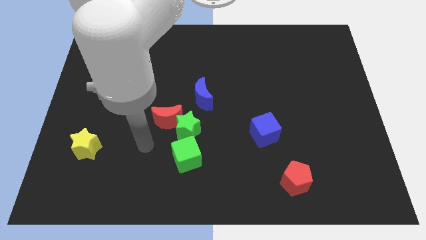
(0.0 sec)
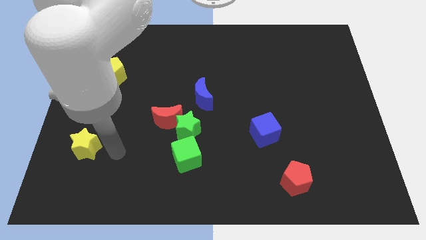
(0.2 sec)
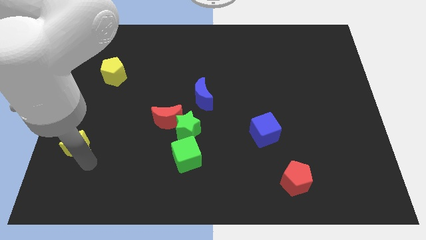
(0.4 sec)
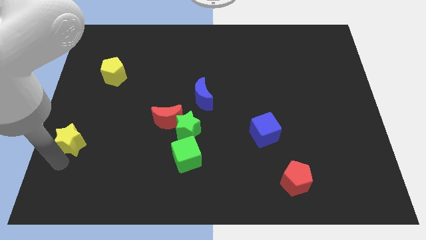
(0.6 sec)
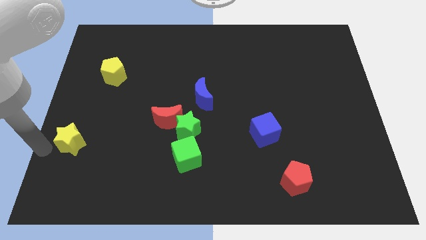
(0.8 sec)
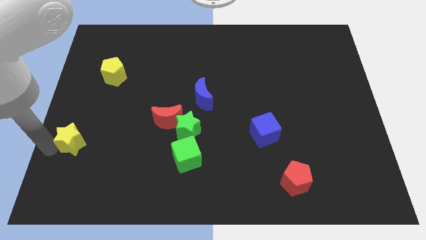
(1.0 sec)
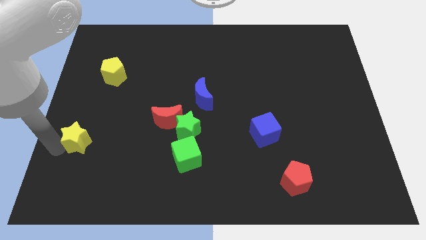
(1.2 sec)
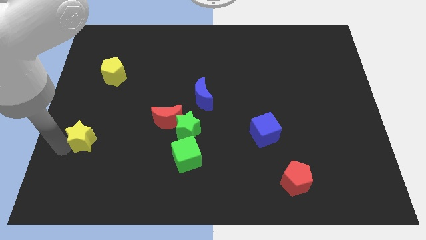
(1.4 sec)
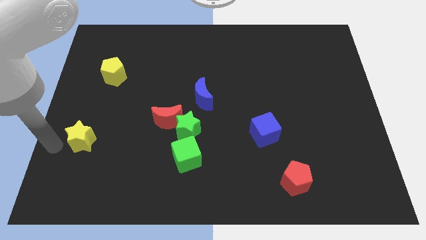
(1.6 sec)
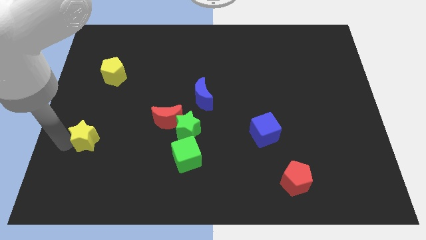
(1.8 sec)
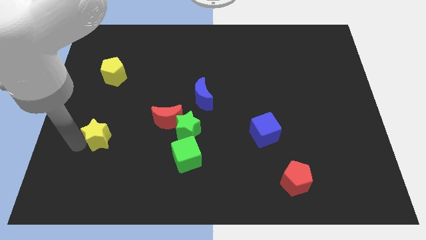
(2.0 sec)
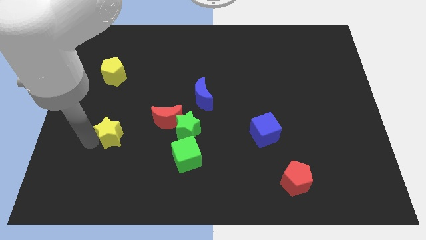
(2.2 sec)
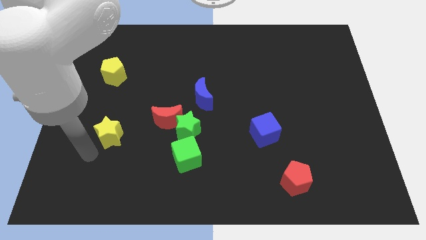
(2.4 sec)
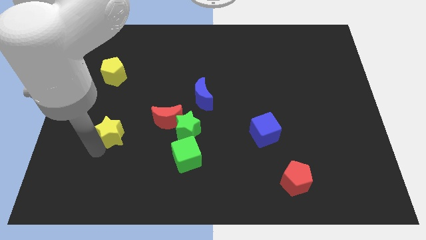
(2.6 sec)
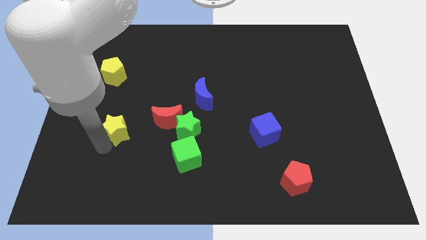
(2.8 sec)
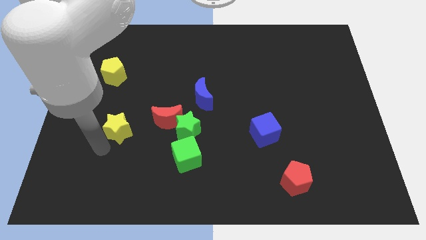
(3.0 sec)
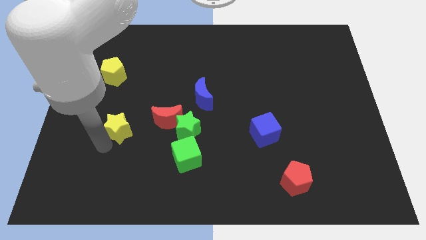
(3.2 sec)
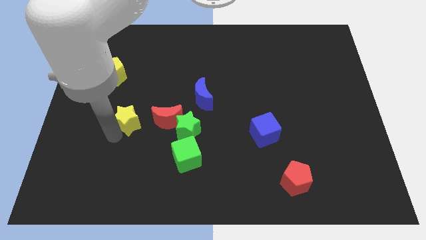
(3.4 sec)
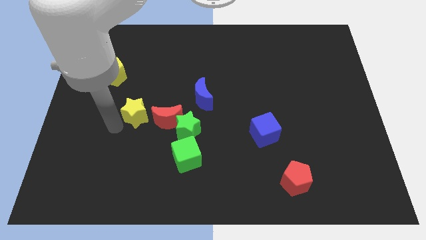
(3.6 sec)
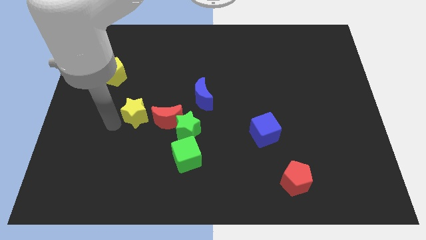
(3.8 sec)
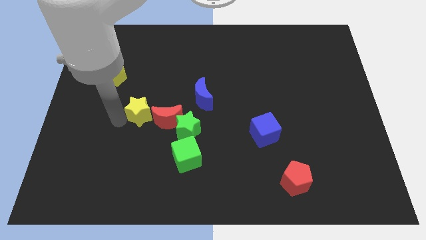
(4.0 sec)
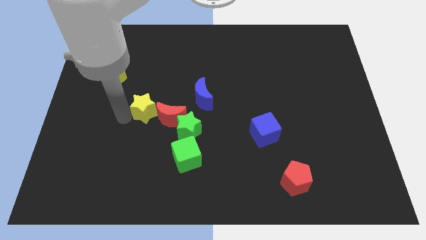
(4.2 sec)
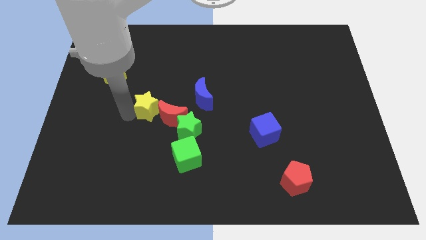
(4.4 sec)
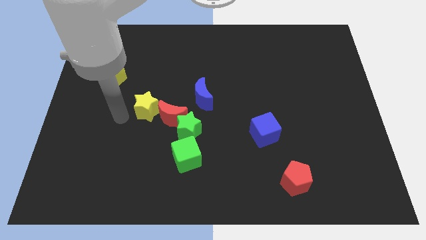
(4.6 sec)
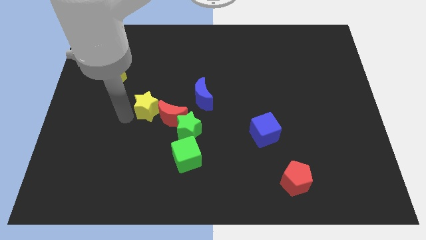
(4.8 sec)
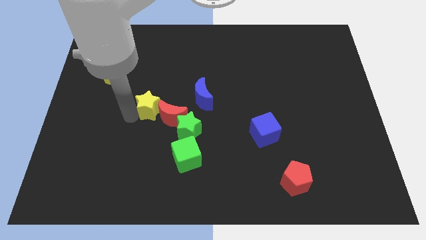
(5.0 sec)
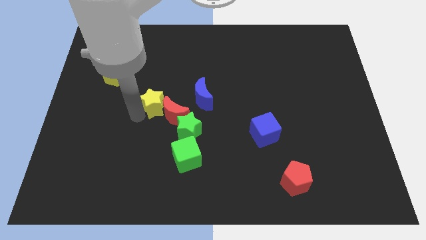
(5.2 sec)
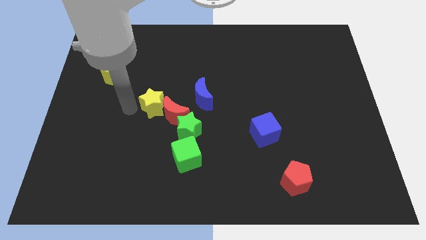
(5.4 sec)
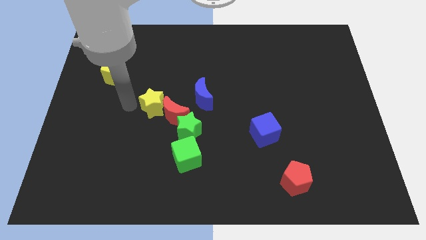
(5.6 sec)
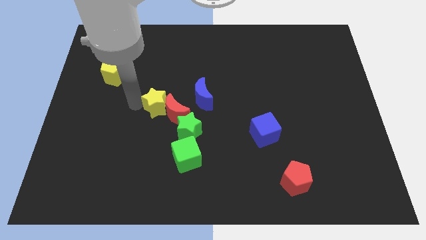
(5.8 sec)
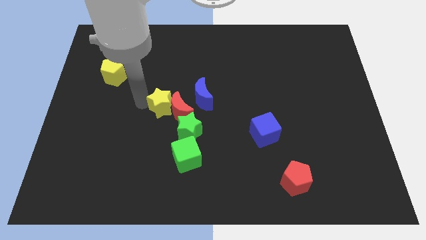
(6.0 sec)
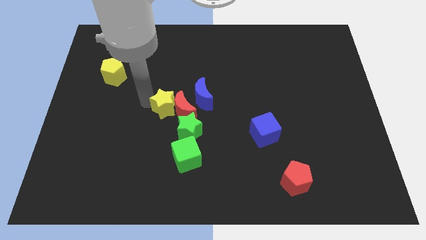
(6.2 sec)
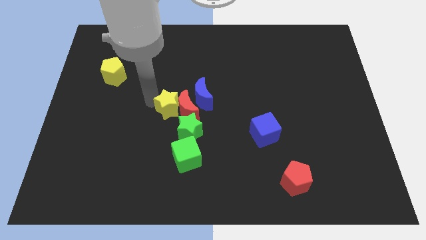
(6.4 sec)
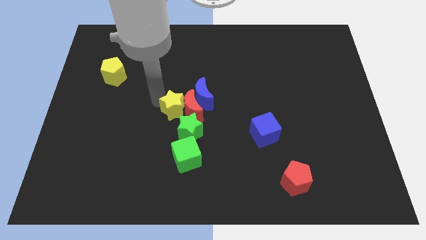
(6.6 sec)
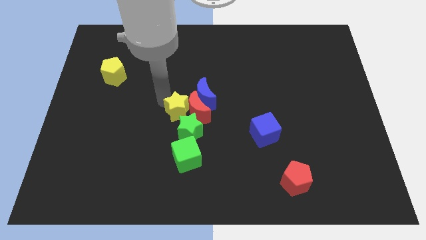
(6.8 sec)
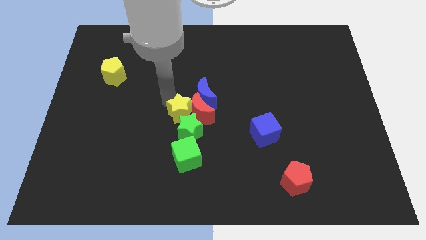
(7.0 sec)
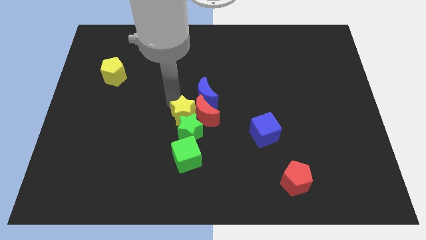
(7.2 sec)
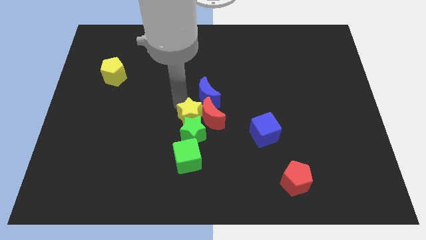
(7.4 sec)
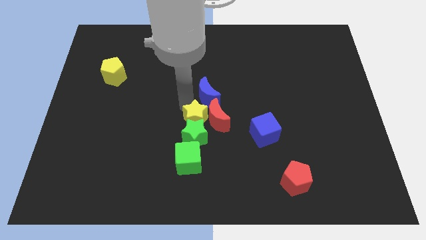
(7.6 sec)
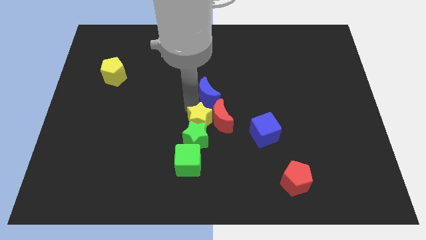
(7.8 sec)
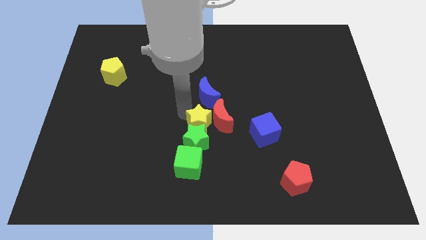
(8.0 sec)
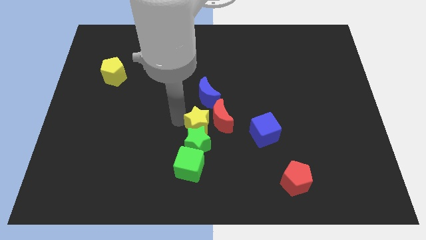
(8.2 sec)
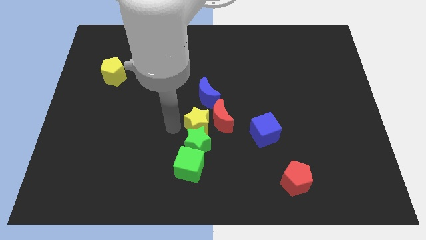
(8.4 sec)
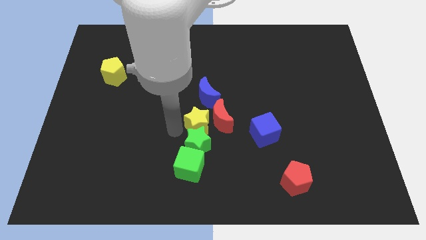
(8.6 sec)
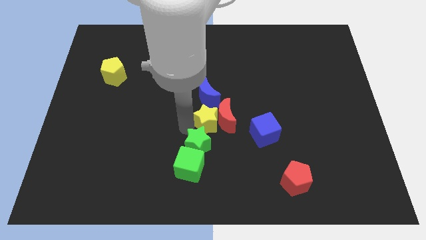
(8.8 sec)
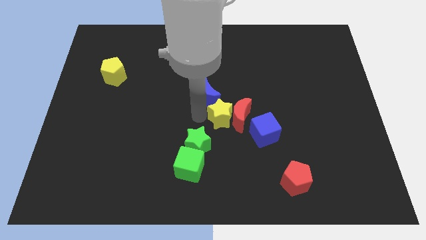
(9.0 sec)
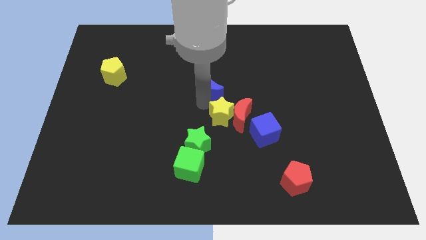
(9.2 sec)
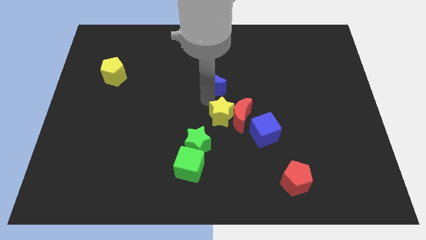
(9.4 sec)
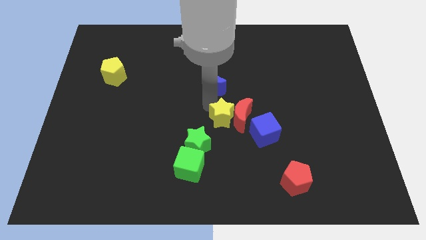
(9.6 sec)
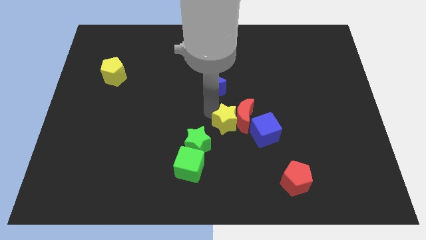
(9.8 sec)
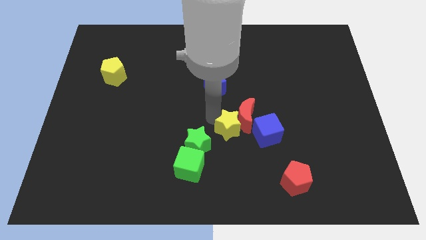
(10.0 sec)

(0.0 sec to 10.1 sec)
put the yellow star right of the green star

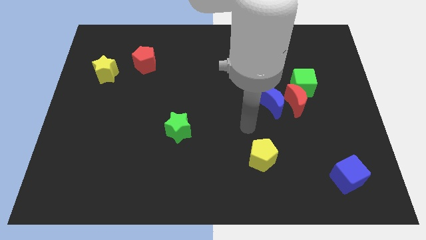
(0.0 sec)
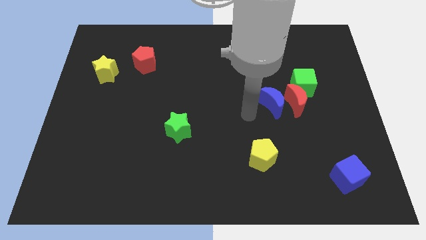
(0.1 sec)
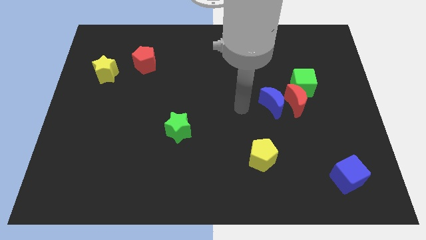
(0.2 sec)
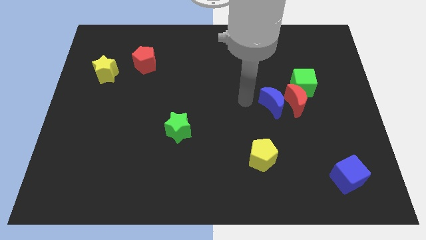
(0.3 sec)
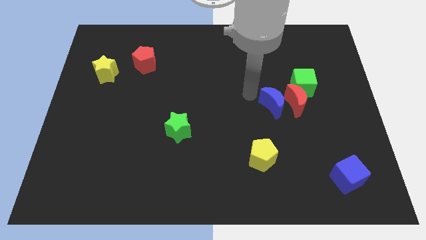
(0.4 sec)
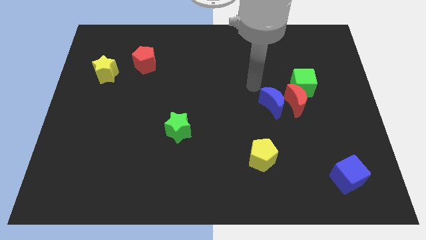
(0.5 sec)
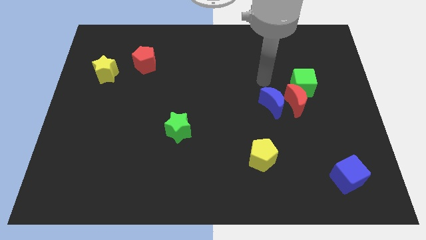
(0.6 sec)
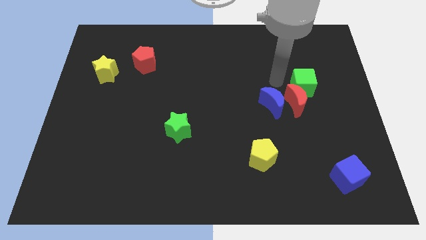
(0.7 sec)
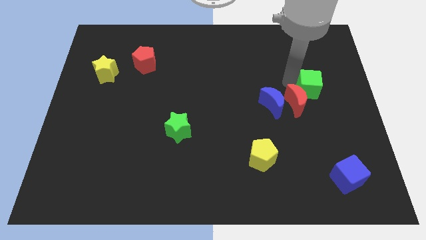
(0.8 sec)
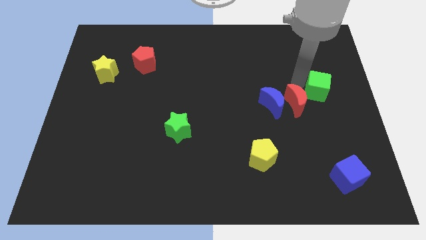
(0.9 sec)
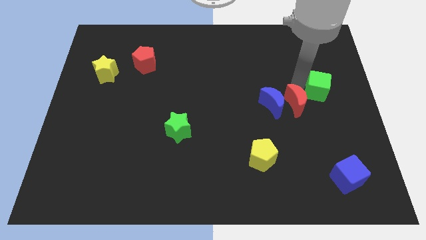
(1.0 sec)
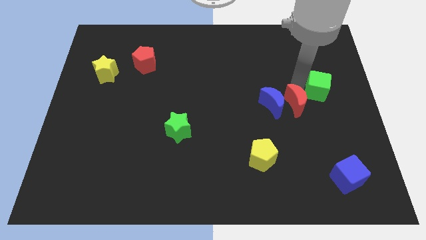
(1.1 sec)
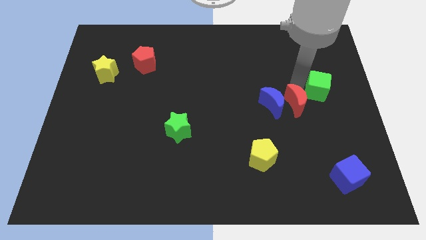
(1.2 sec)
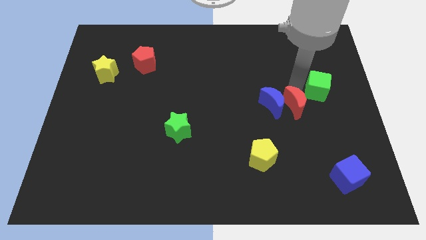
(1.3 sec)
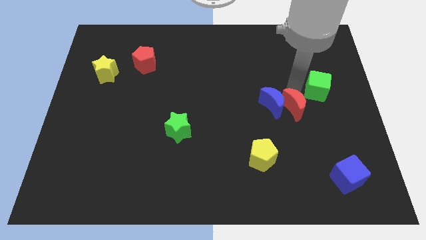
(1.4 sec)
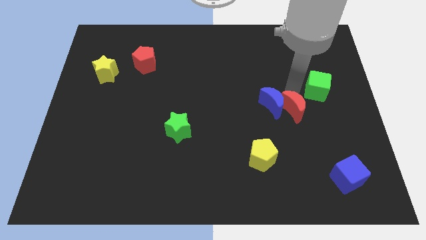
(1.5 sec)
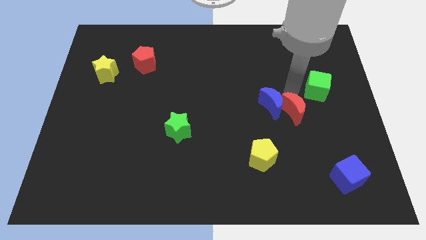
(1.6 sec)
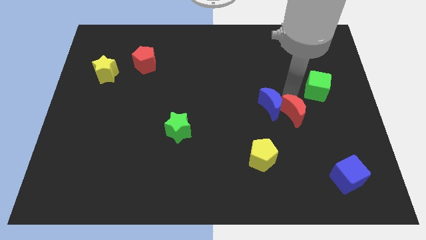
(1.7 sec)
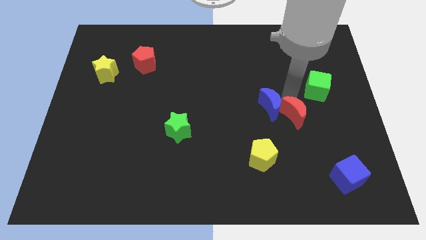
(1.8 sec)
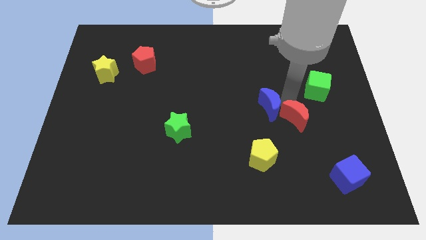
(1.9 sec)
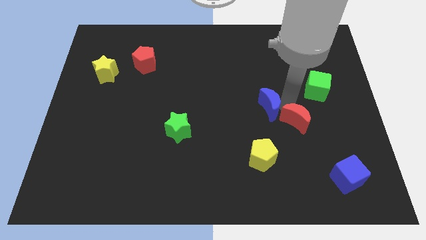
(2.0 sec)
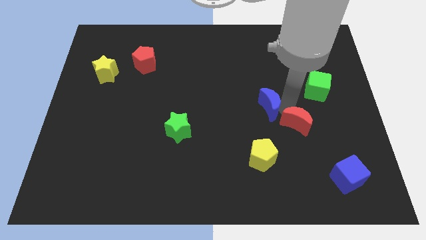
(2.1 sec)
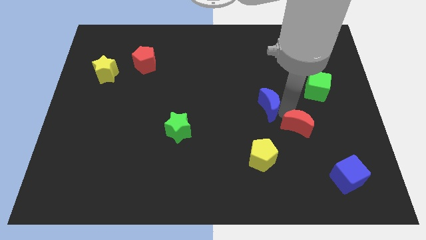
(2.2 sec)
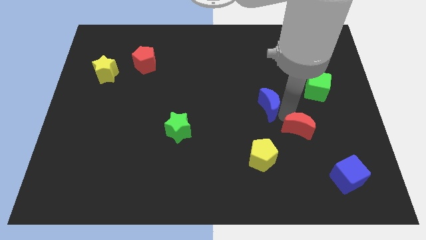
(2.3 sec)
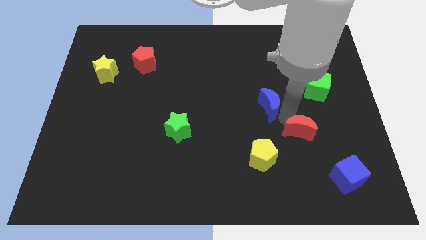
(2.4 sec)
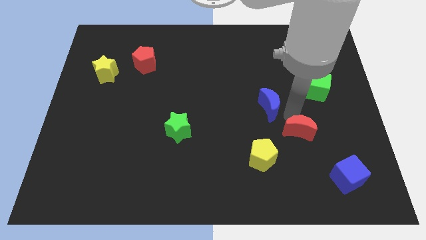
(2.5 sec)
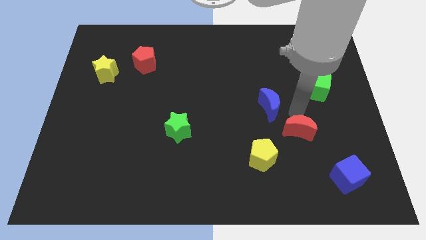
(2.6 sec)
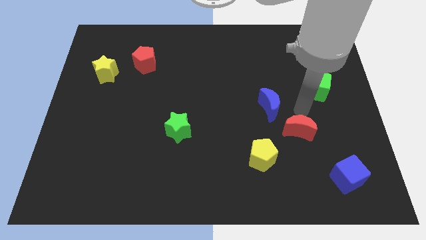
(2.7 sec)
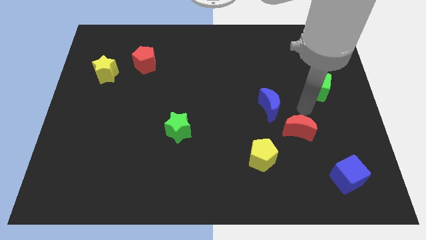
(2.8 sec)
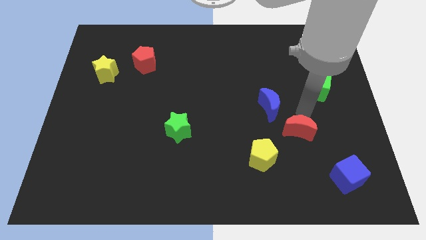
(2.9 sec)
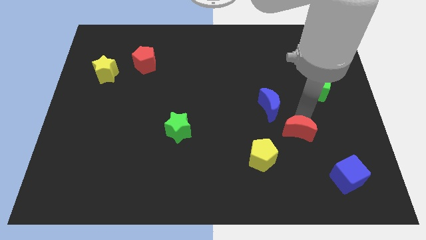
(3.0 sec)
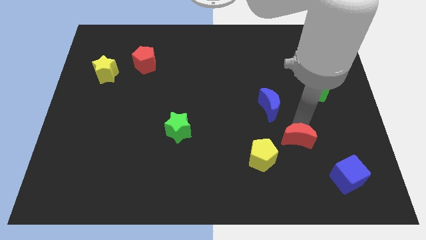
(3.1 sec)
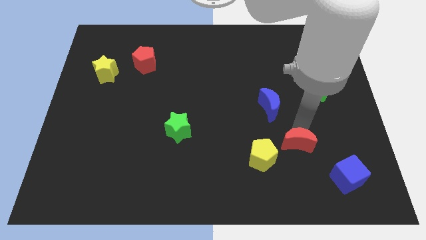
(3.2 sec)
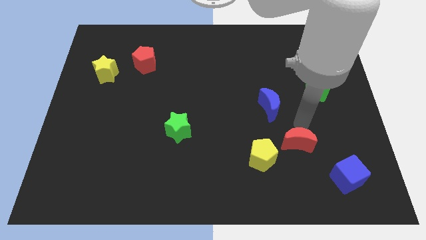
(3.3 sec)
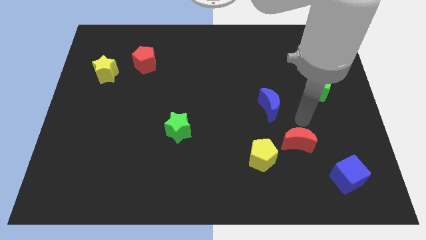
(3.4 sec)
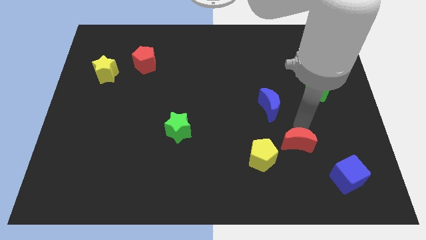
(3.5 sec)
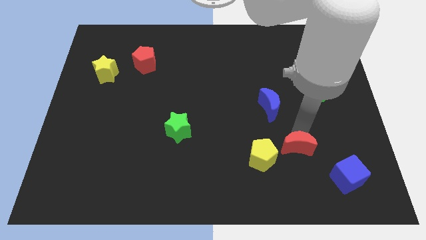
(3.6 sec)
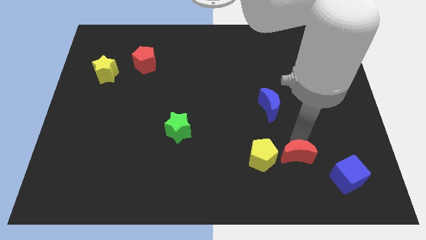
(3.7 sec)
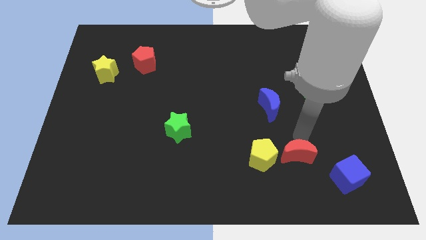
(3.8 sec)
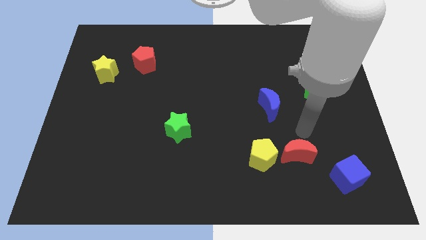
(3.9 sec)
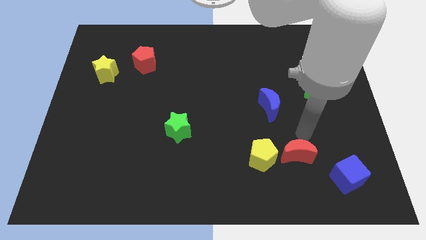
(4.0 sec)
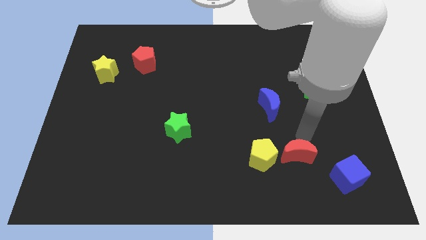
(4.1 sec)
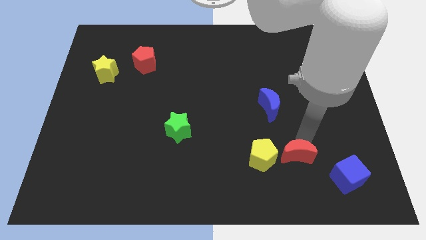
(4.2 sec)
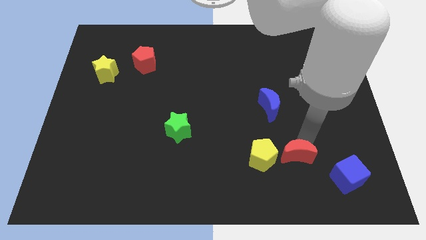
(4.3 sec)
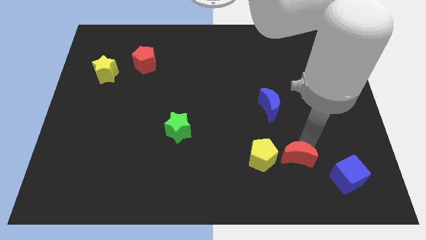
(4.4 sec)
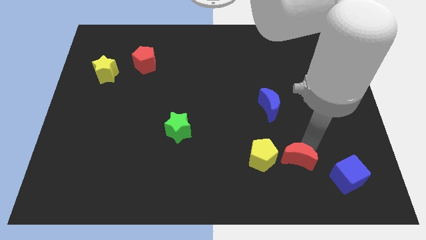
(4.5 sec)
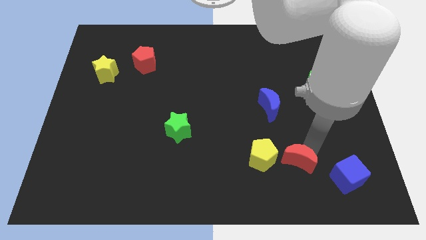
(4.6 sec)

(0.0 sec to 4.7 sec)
slide the red moon to the bottom right side of the yellow pentagon
